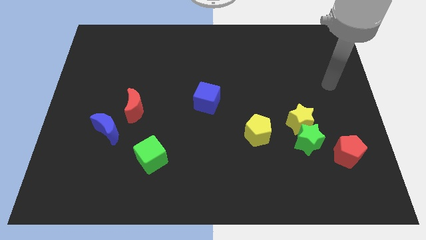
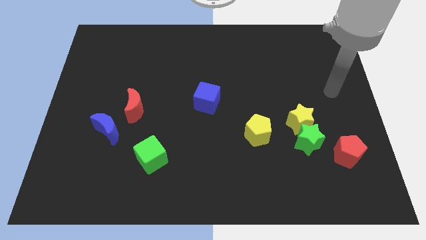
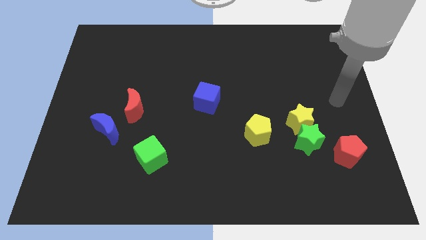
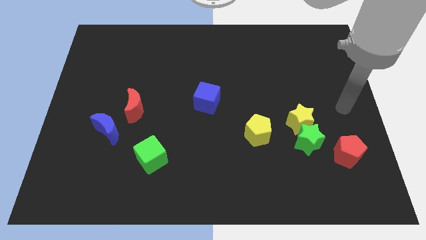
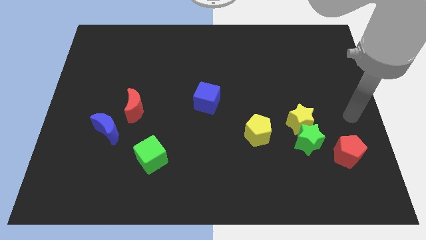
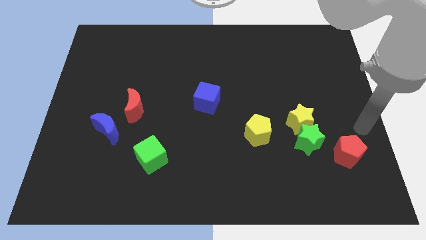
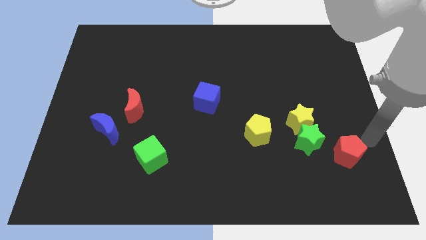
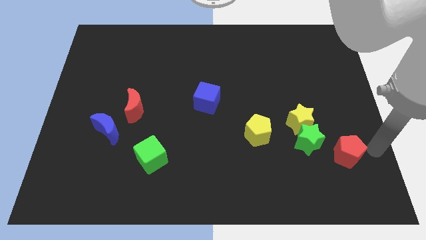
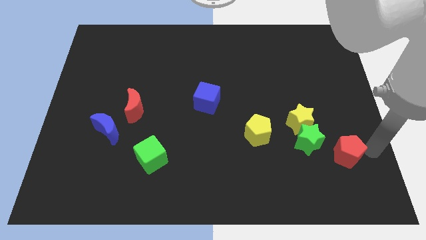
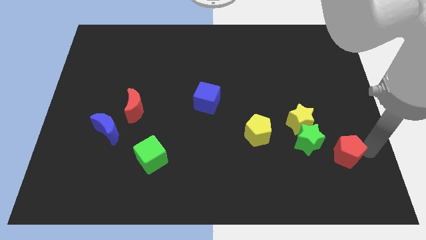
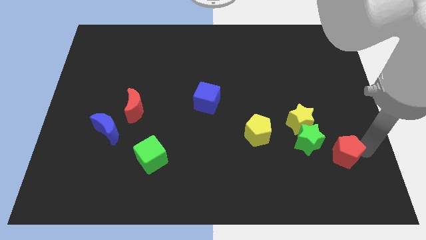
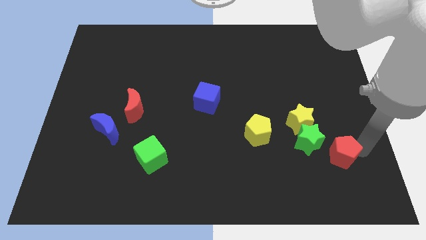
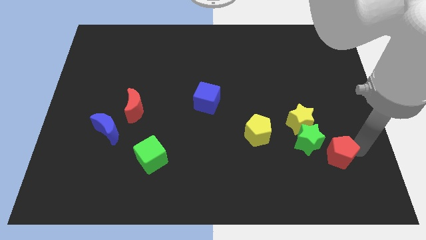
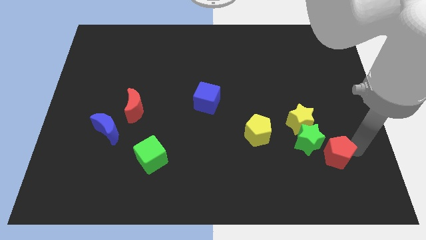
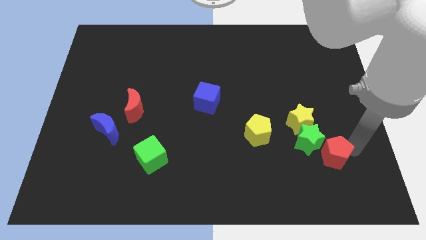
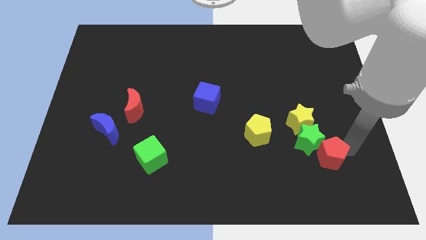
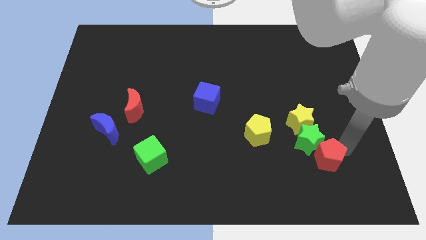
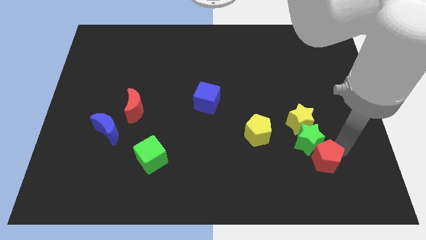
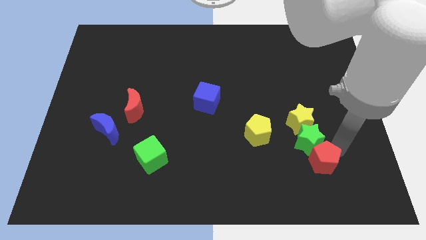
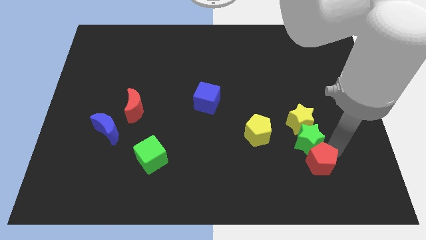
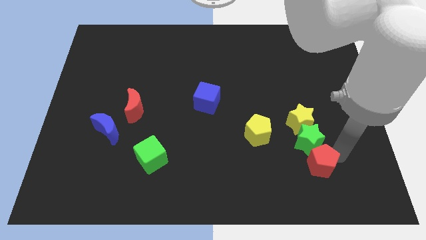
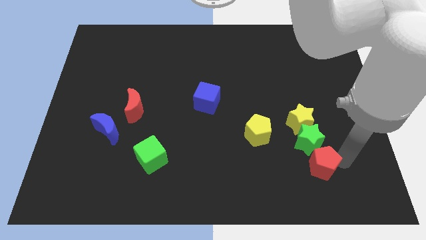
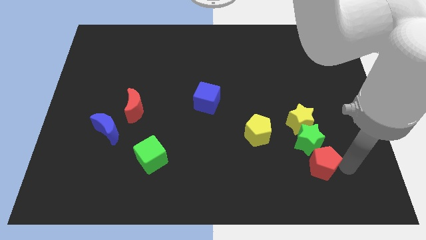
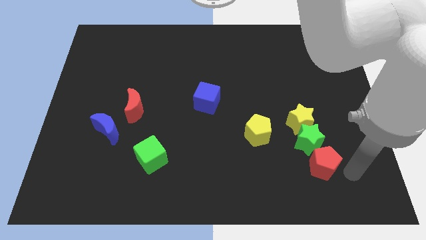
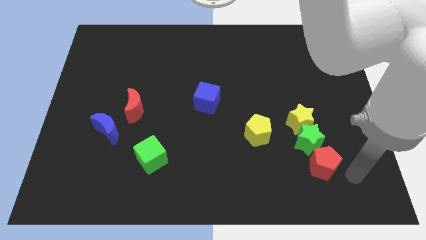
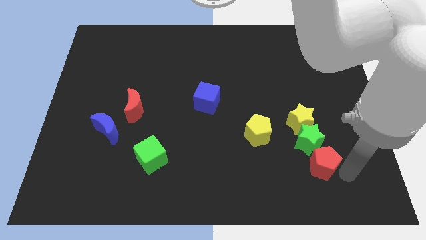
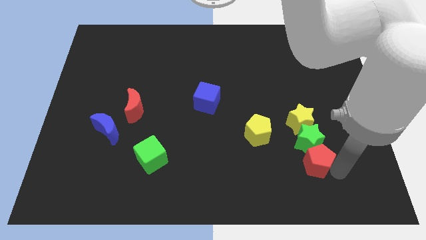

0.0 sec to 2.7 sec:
slightly slide the red pentagon left

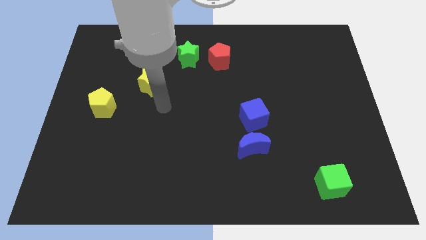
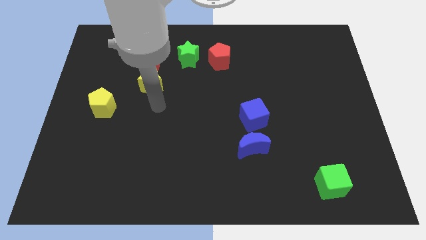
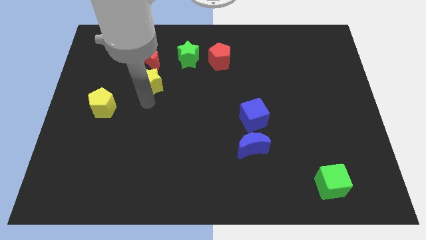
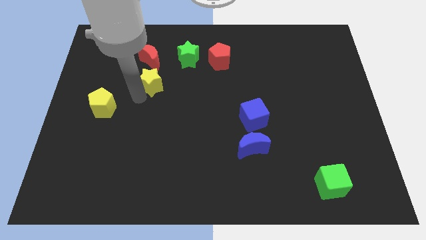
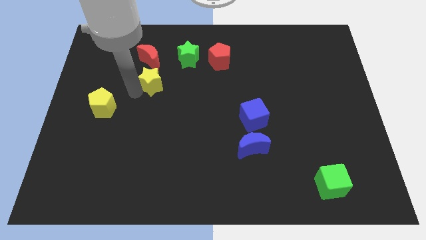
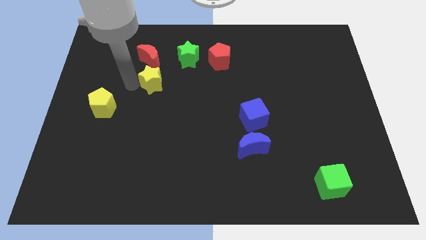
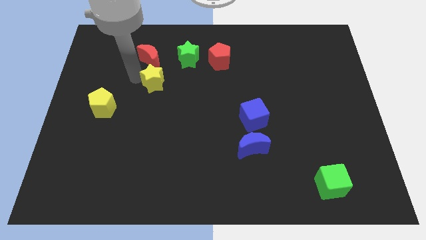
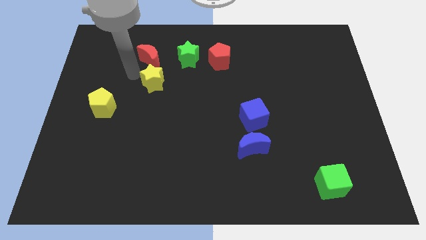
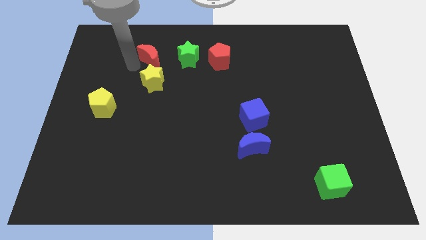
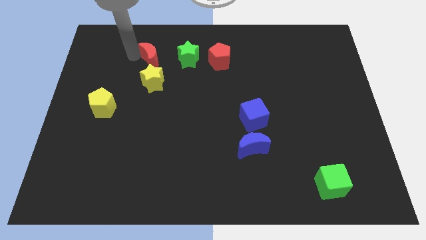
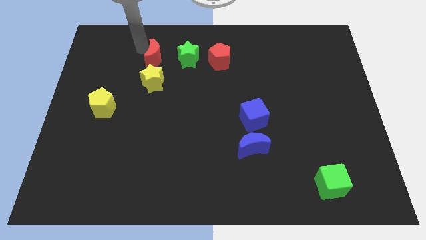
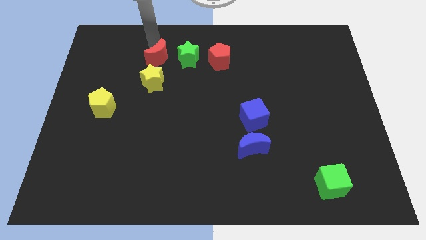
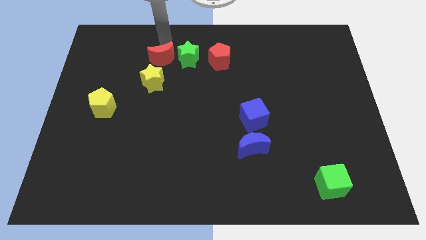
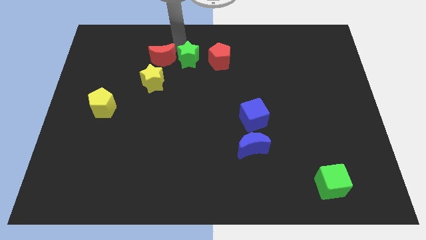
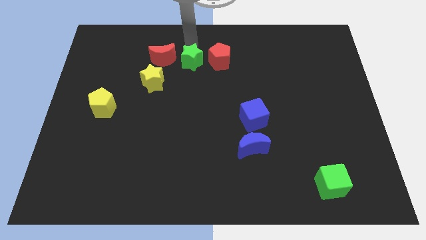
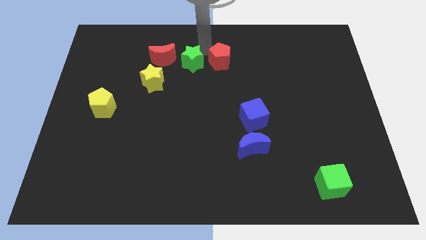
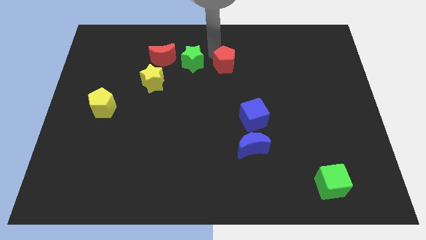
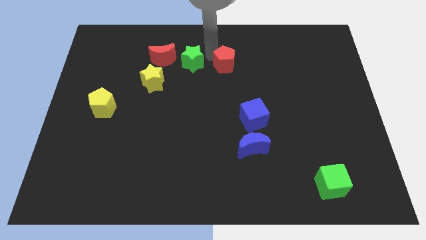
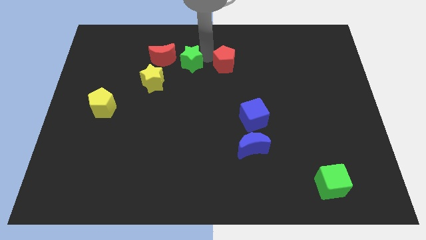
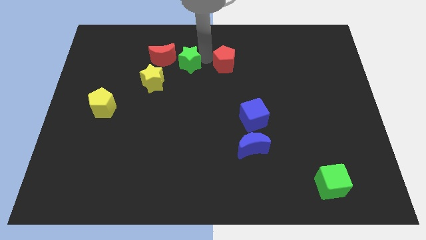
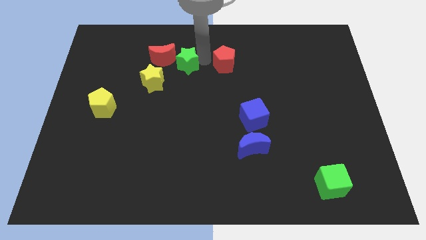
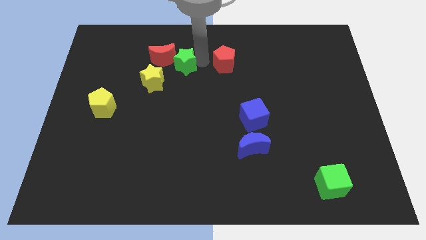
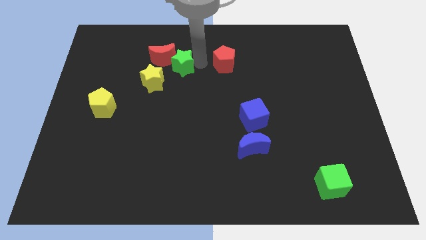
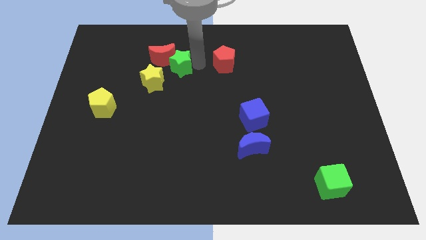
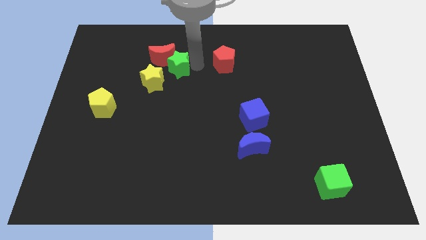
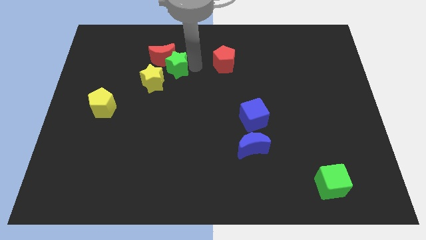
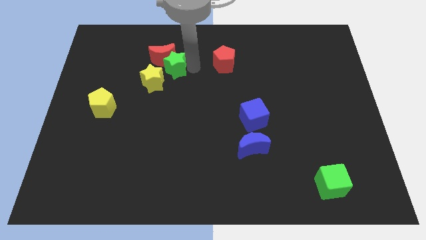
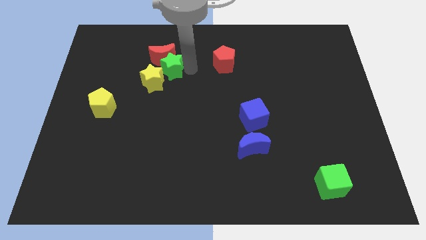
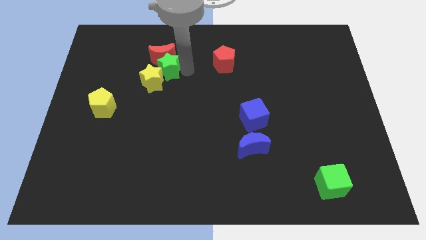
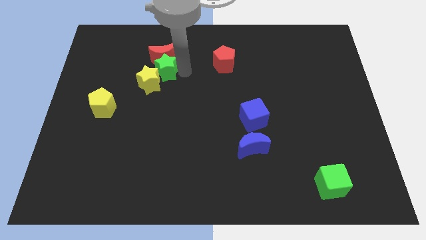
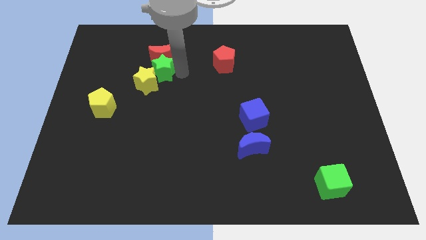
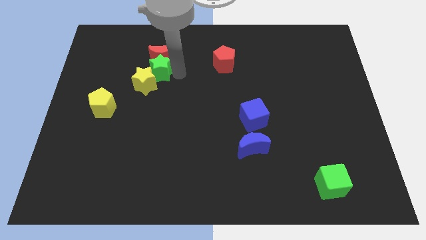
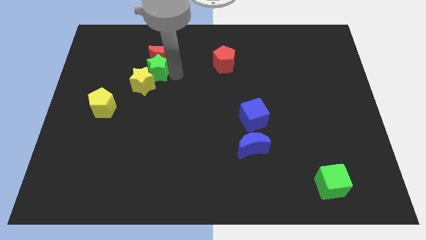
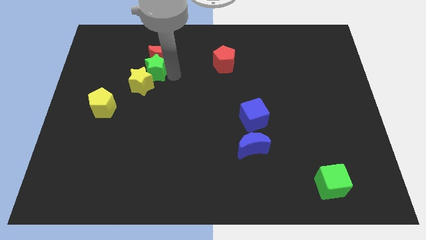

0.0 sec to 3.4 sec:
slightly slide the green star left

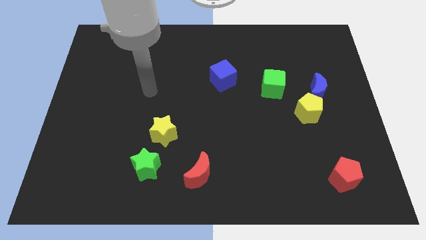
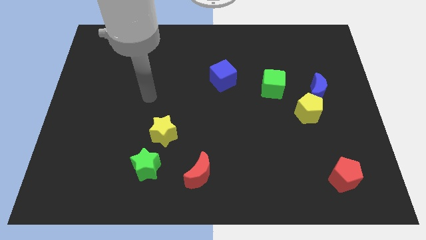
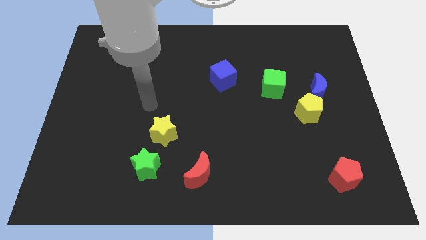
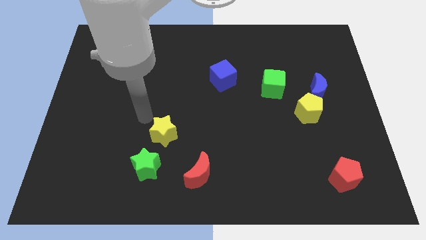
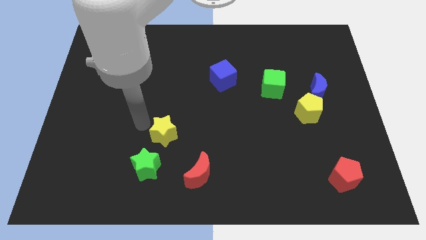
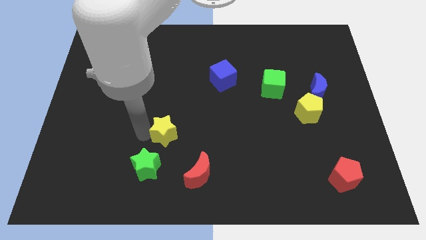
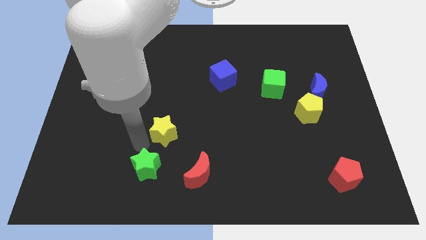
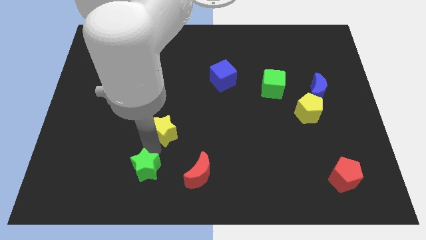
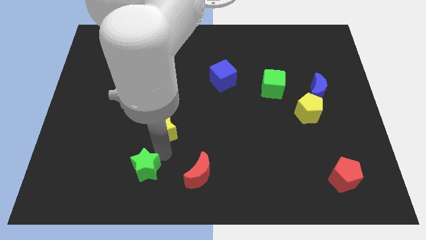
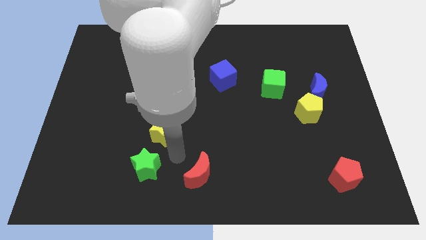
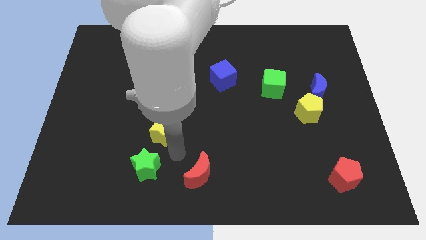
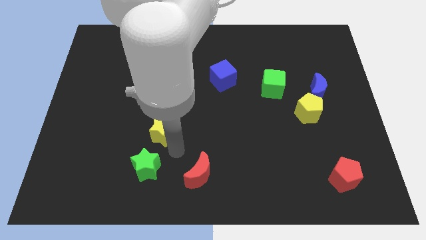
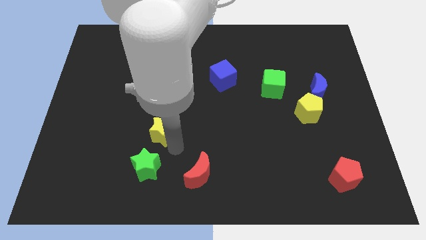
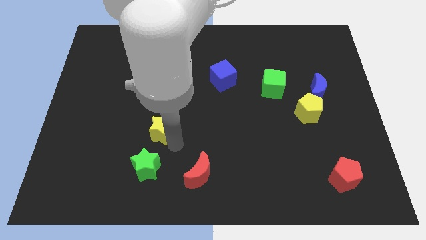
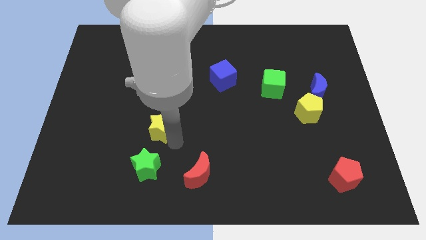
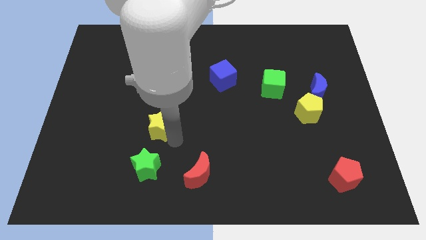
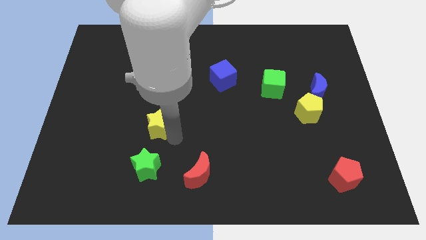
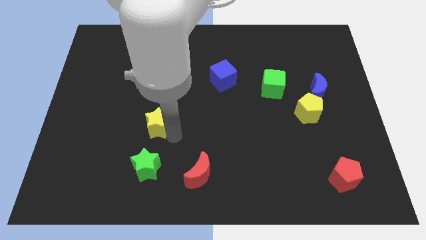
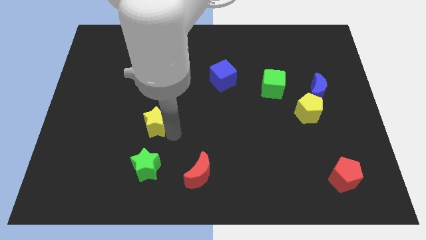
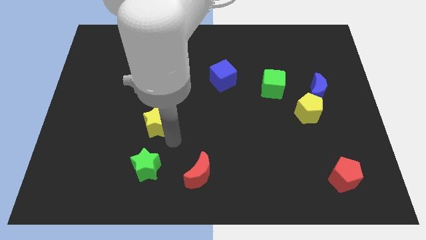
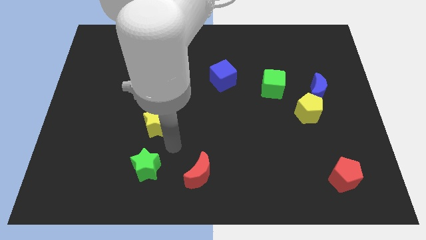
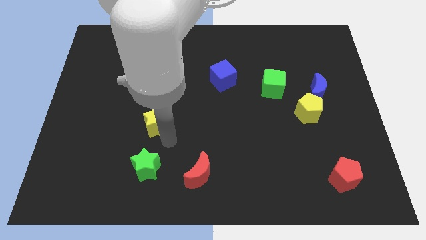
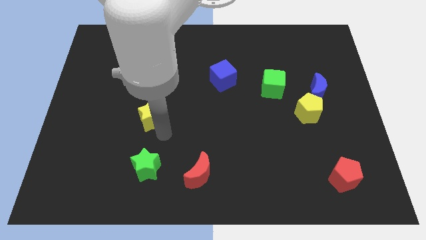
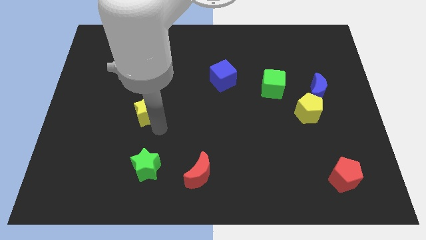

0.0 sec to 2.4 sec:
slide the yellow star slightly up and left
